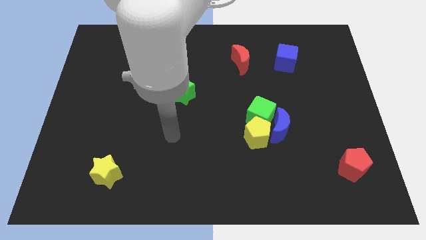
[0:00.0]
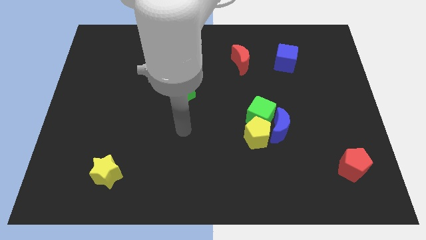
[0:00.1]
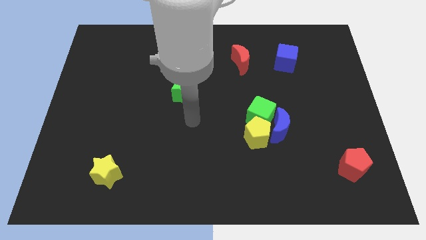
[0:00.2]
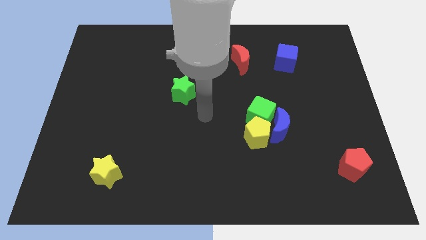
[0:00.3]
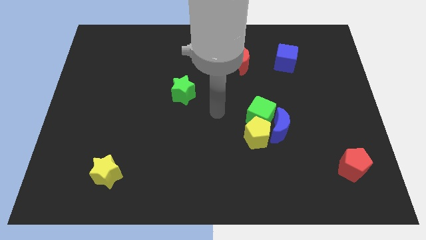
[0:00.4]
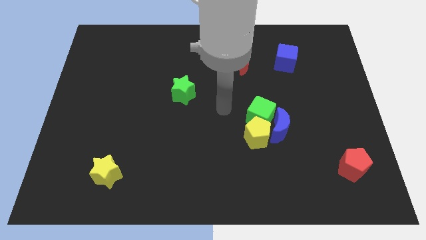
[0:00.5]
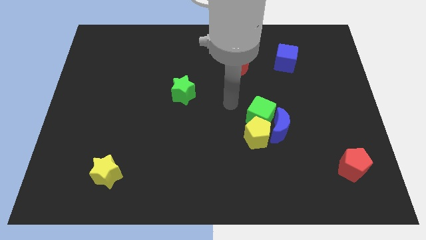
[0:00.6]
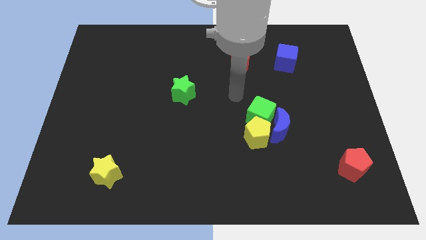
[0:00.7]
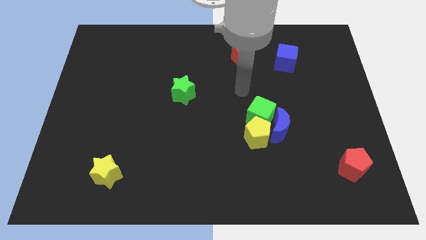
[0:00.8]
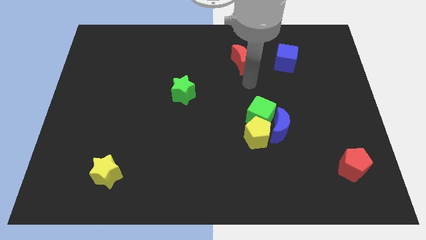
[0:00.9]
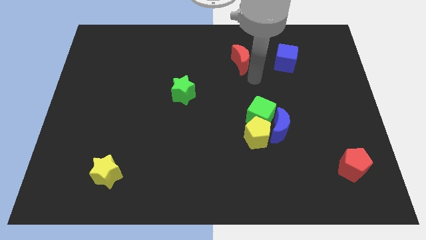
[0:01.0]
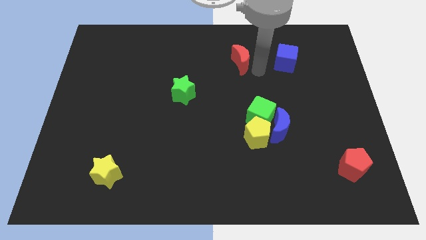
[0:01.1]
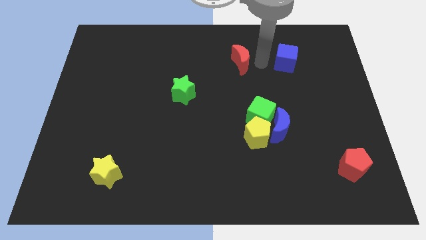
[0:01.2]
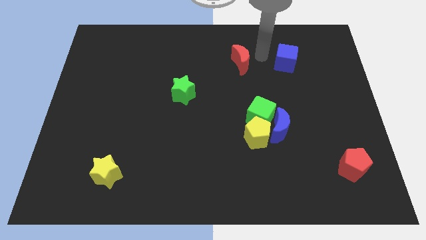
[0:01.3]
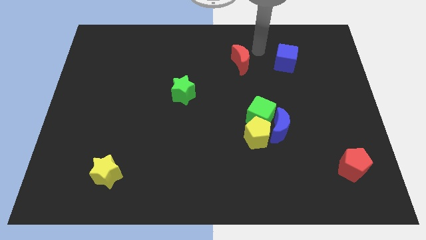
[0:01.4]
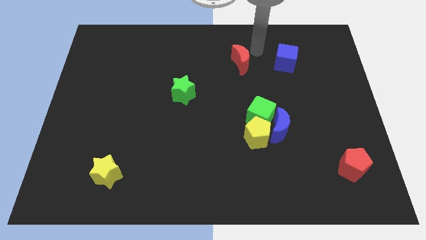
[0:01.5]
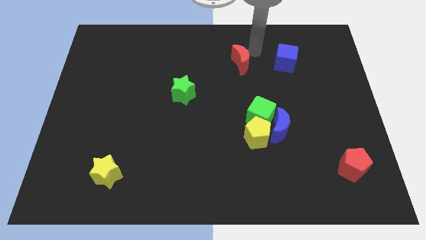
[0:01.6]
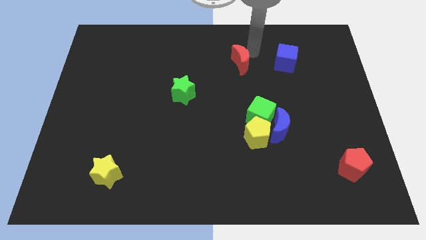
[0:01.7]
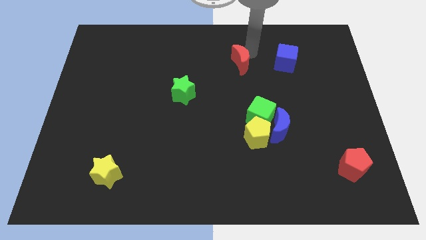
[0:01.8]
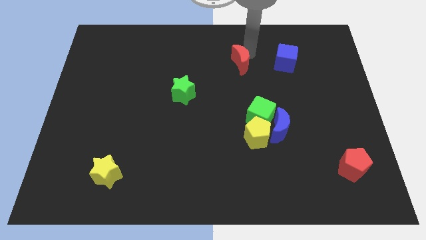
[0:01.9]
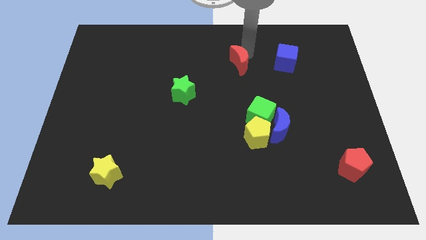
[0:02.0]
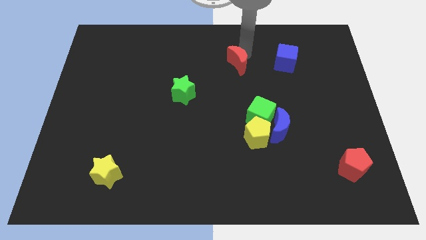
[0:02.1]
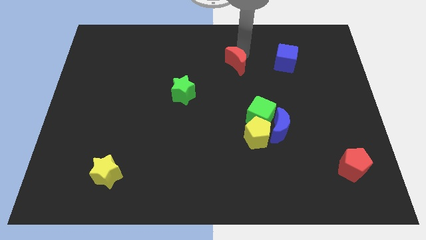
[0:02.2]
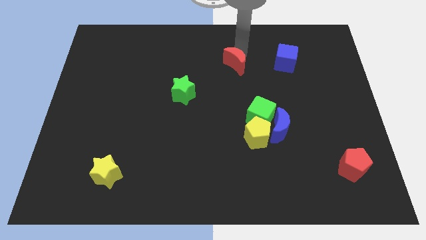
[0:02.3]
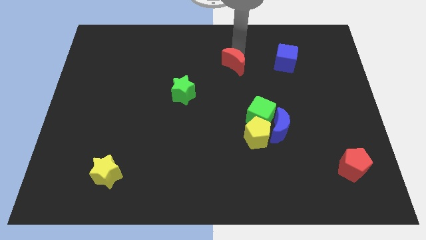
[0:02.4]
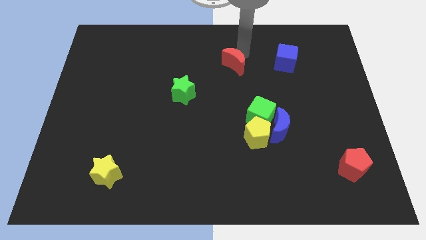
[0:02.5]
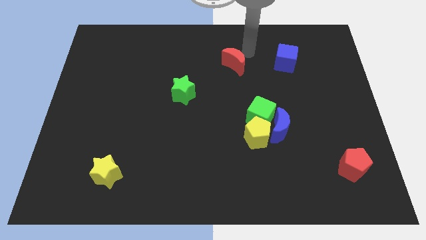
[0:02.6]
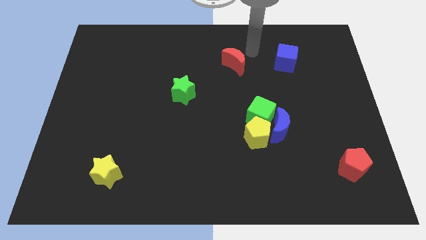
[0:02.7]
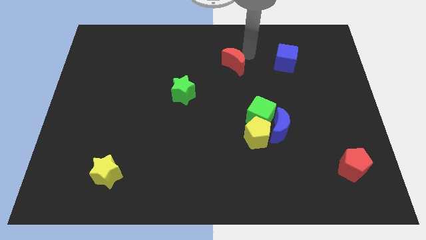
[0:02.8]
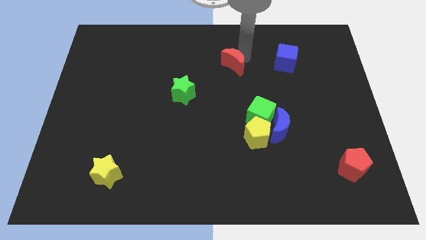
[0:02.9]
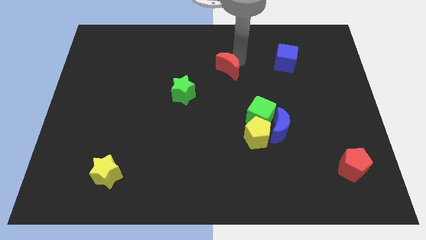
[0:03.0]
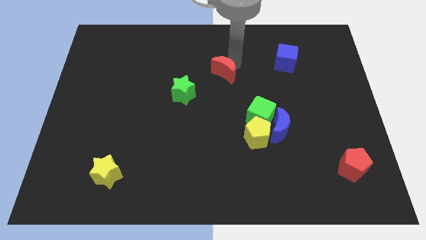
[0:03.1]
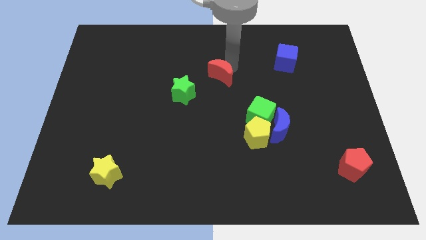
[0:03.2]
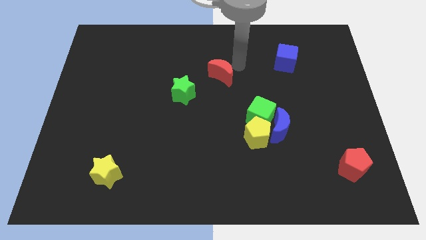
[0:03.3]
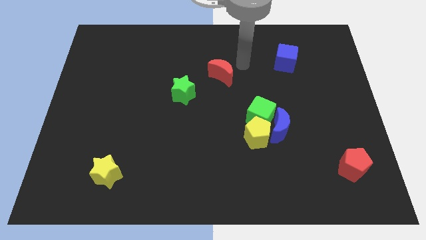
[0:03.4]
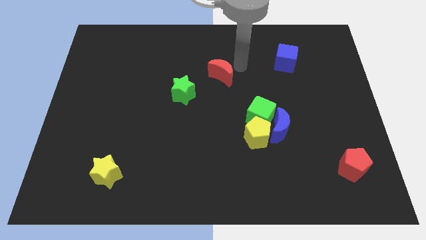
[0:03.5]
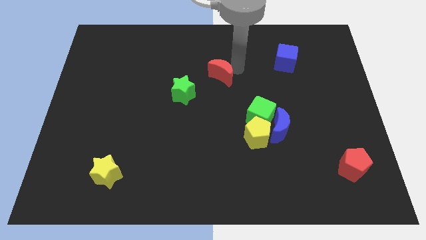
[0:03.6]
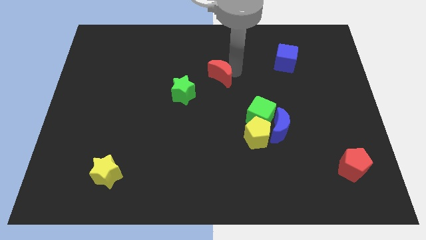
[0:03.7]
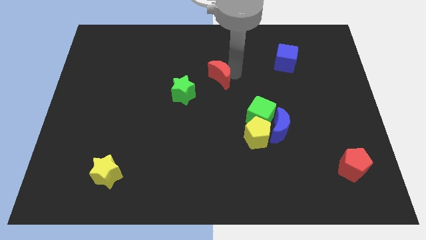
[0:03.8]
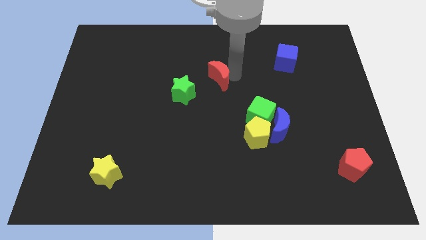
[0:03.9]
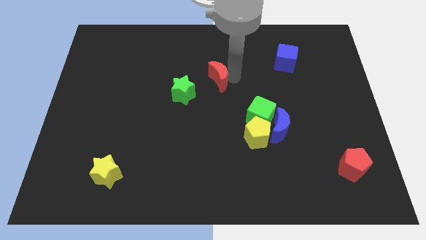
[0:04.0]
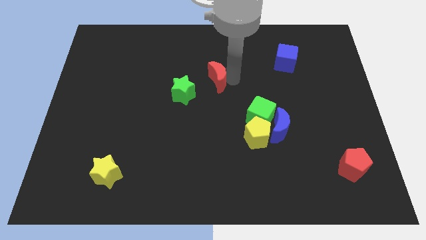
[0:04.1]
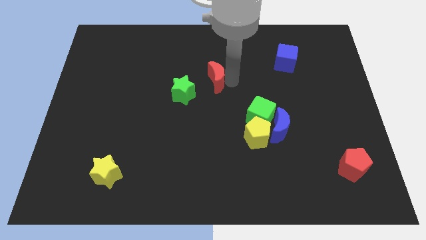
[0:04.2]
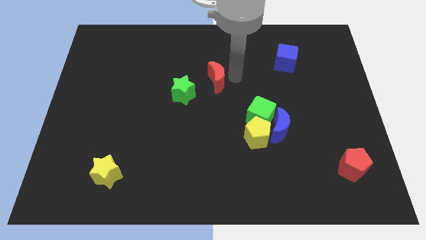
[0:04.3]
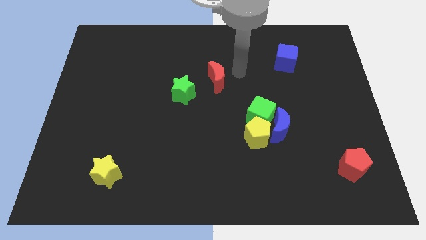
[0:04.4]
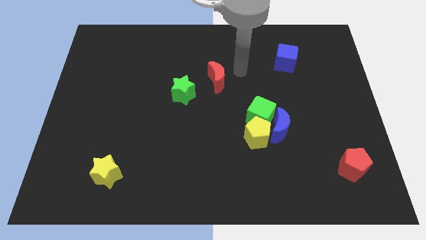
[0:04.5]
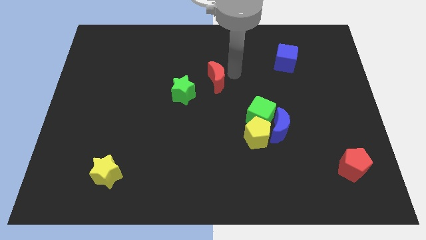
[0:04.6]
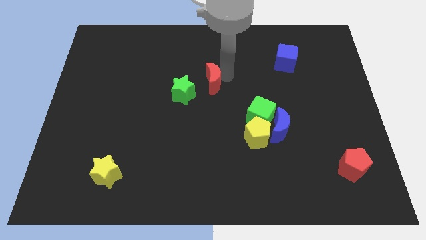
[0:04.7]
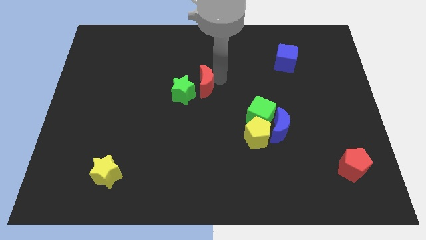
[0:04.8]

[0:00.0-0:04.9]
move the red moon close to the green star

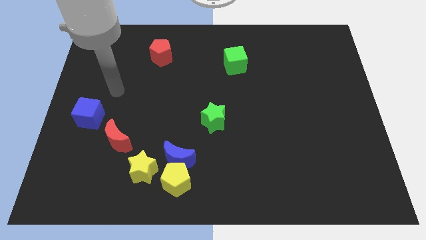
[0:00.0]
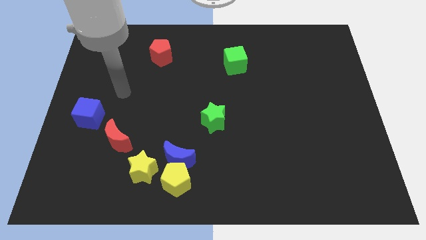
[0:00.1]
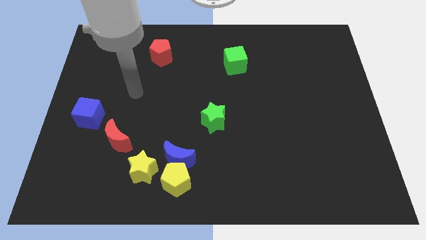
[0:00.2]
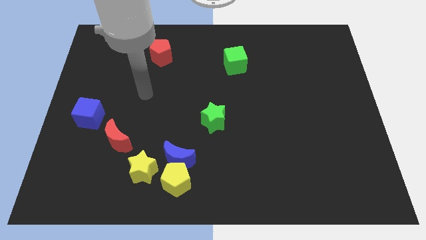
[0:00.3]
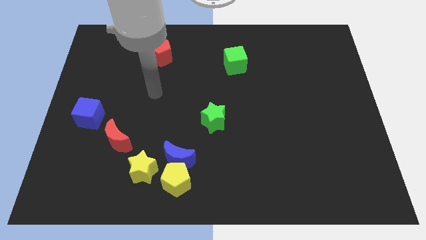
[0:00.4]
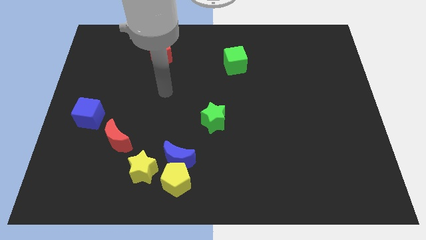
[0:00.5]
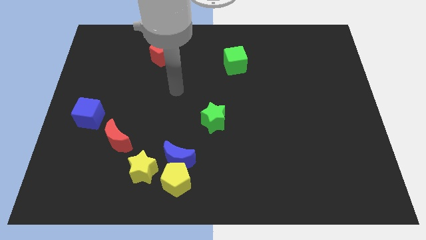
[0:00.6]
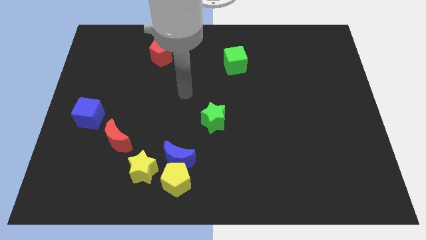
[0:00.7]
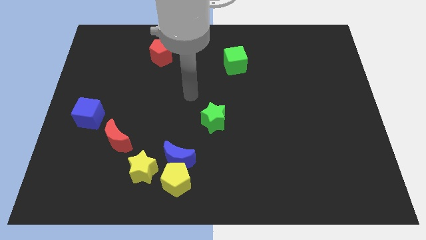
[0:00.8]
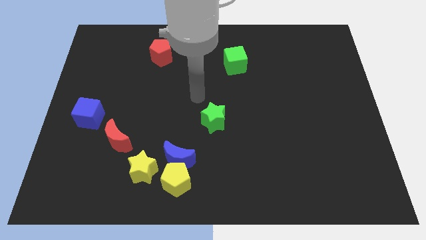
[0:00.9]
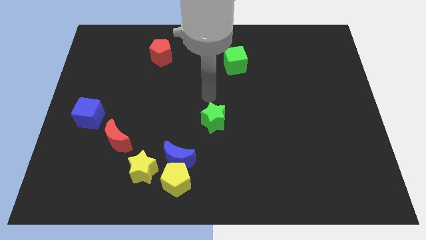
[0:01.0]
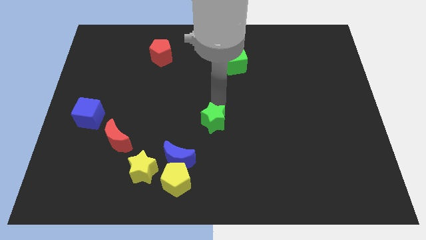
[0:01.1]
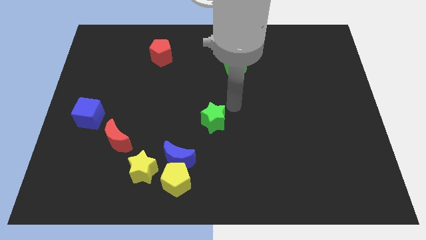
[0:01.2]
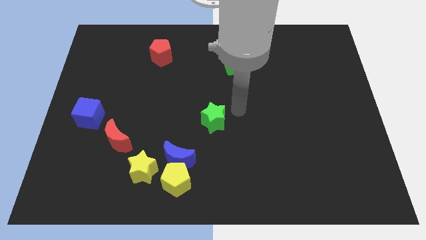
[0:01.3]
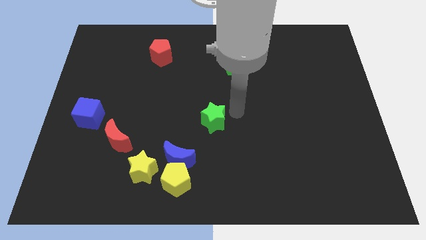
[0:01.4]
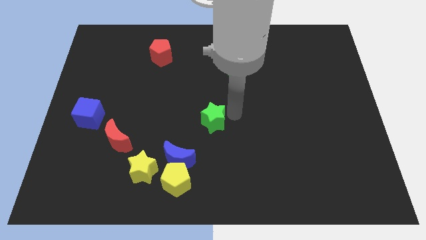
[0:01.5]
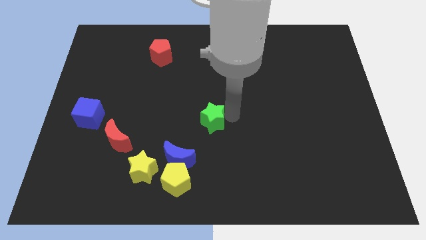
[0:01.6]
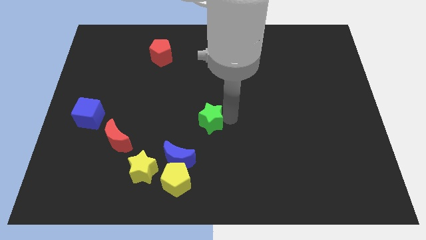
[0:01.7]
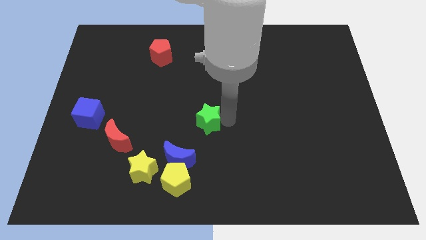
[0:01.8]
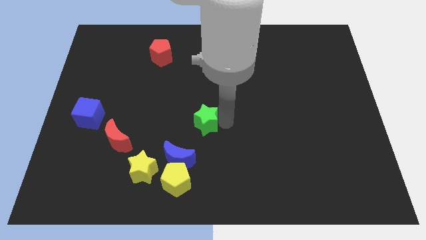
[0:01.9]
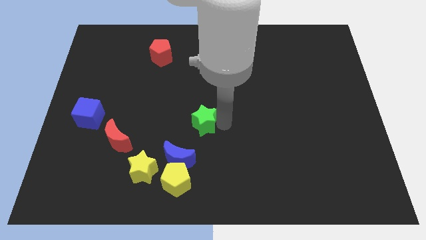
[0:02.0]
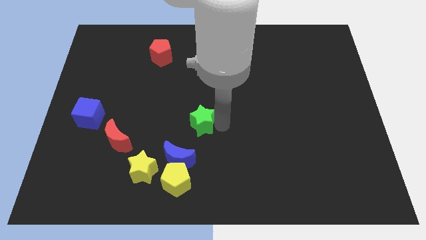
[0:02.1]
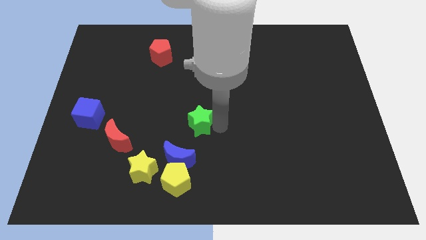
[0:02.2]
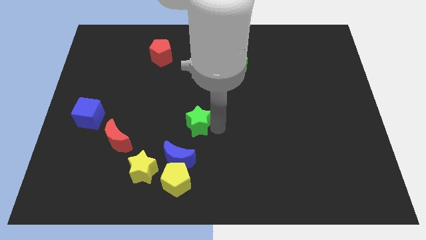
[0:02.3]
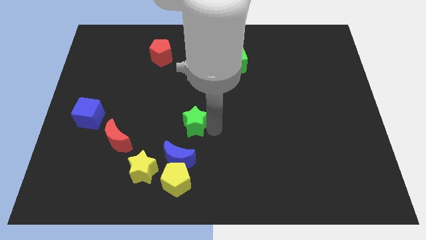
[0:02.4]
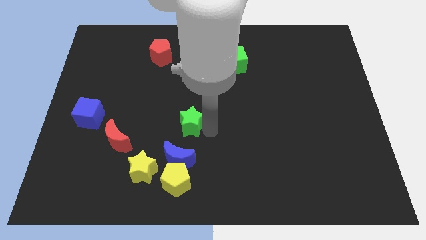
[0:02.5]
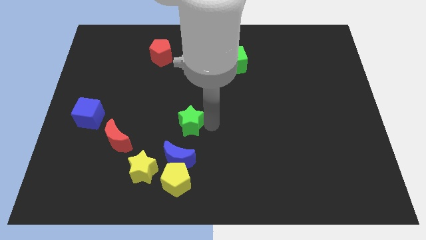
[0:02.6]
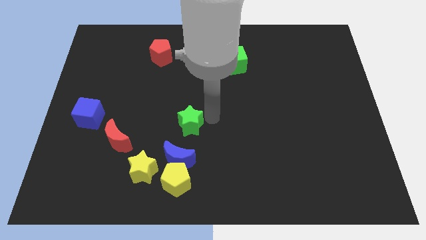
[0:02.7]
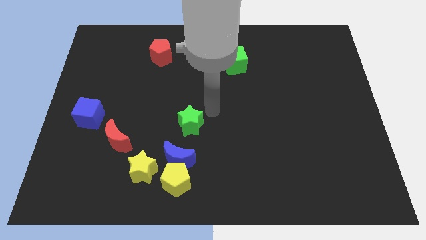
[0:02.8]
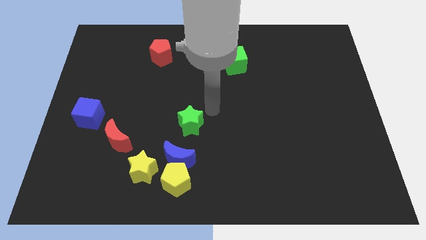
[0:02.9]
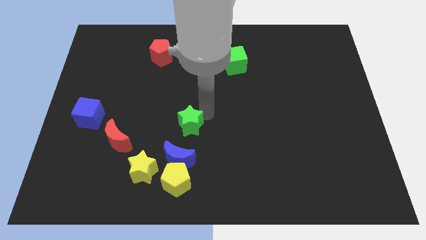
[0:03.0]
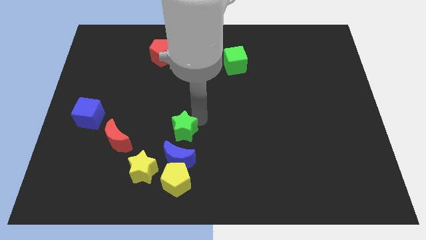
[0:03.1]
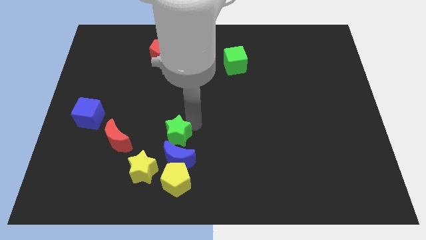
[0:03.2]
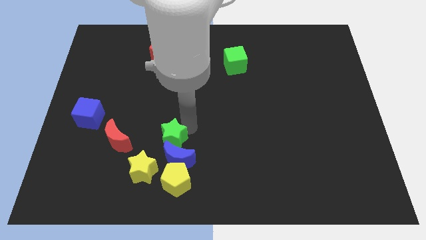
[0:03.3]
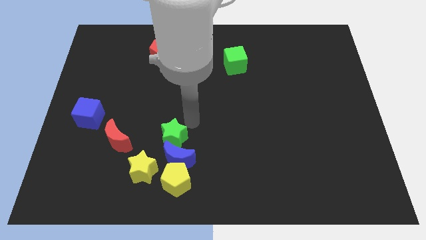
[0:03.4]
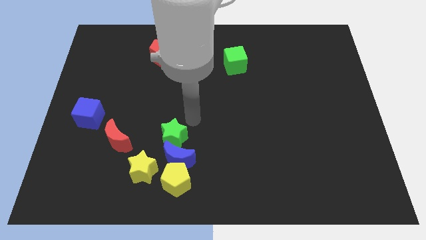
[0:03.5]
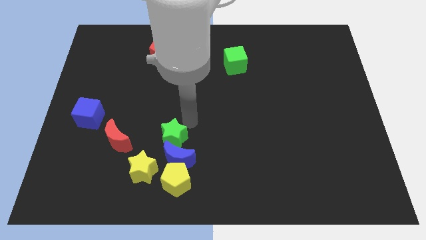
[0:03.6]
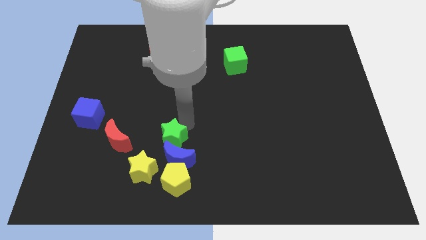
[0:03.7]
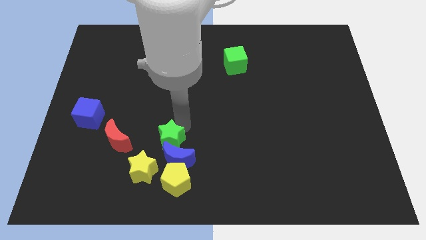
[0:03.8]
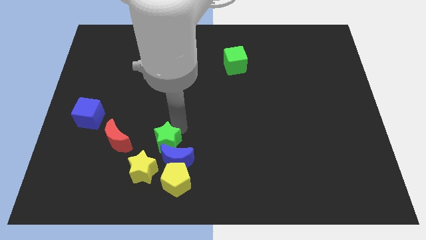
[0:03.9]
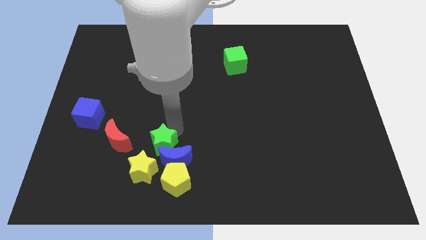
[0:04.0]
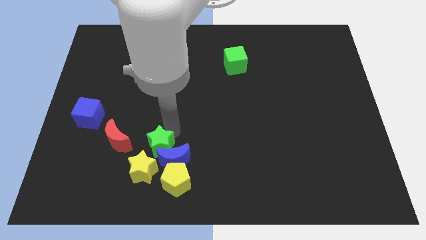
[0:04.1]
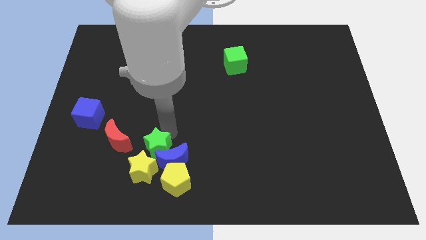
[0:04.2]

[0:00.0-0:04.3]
put the green star to the yellow star
